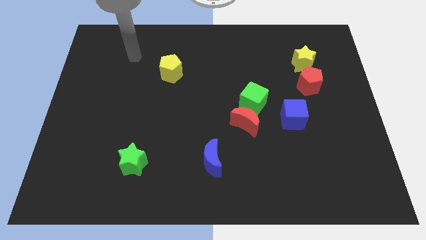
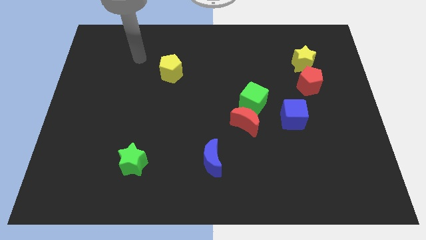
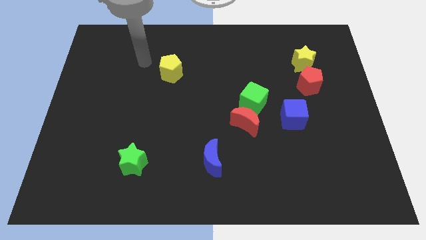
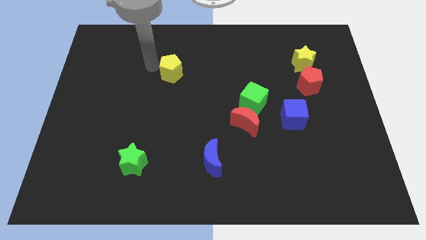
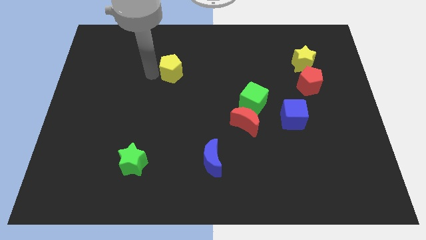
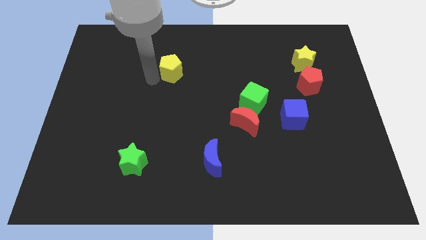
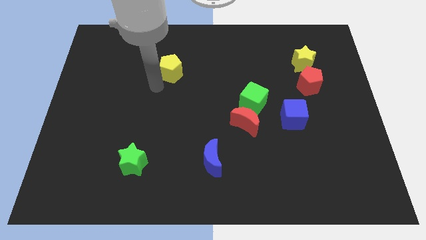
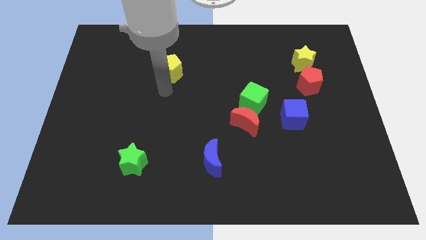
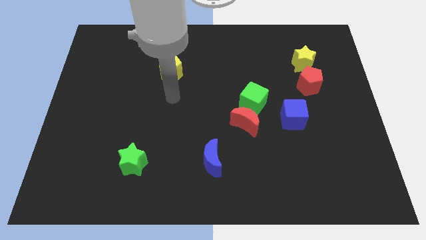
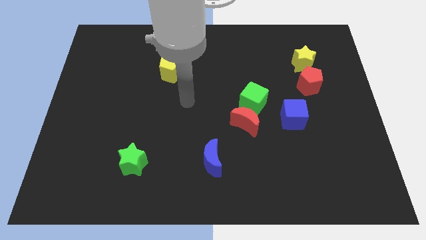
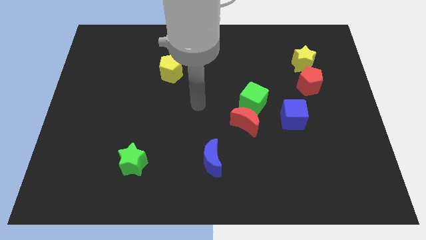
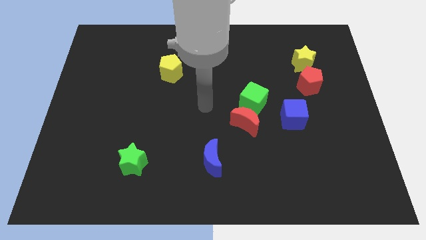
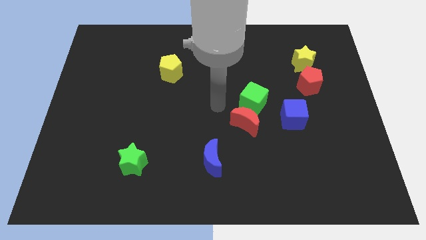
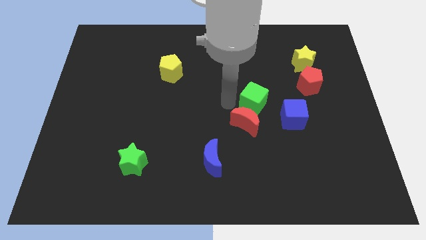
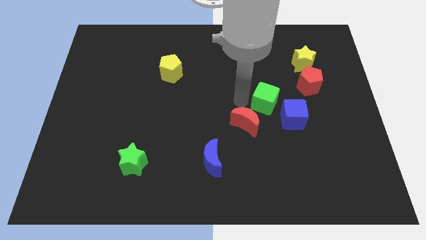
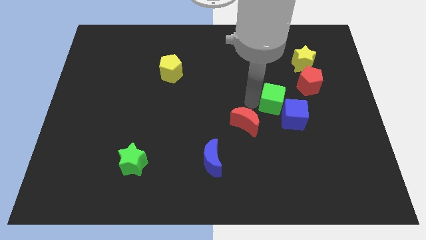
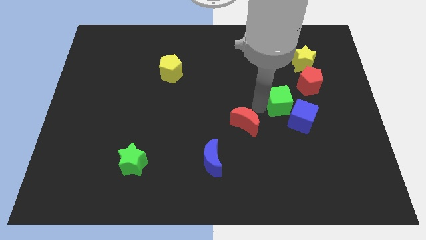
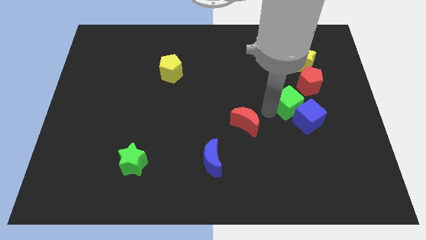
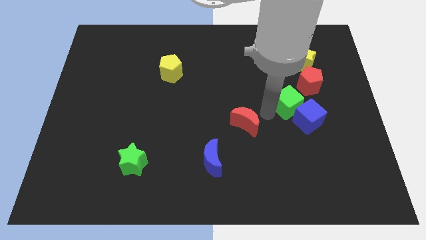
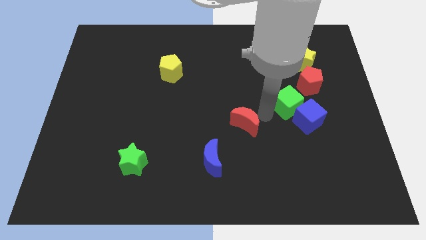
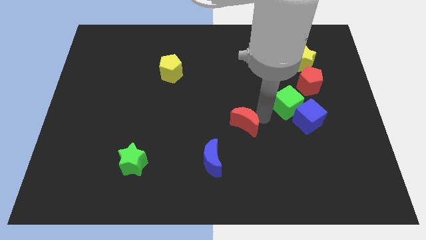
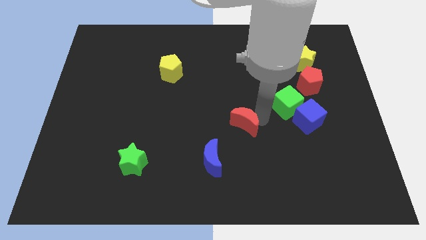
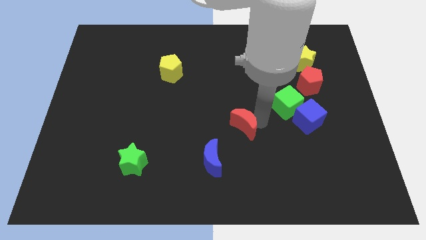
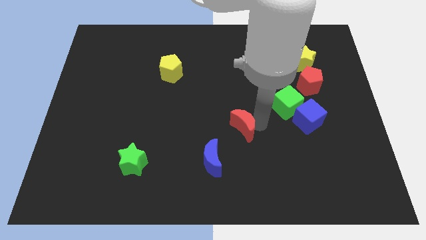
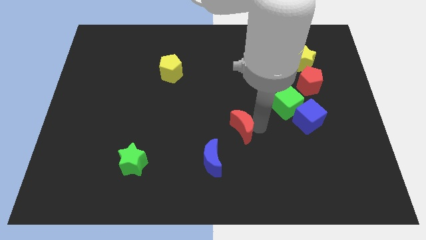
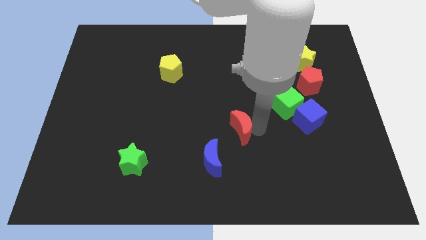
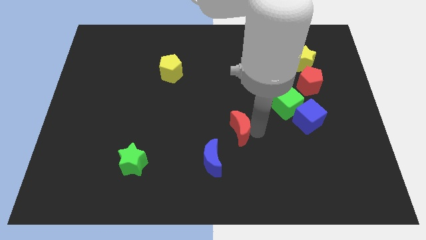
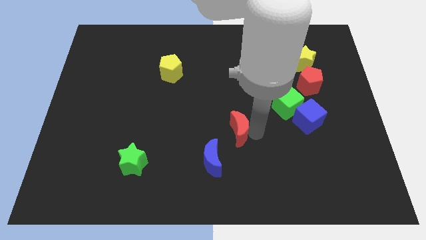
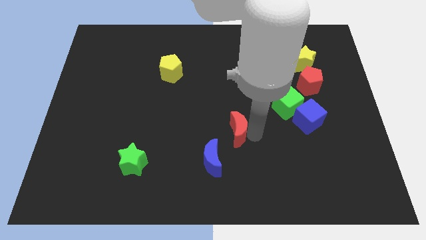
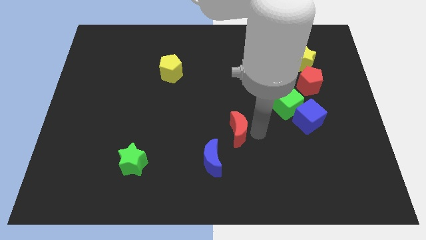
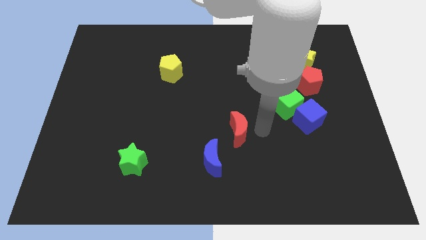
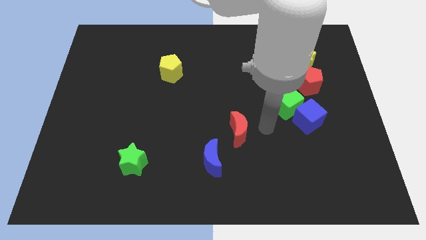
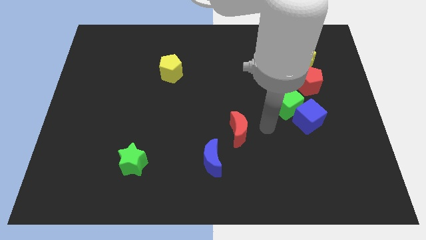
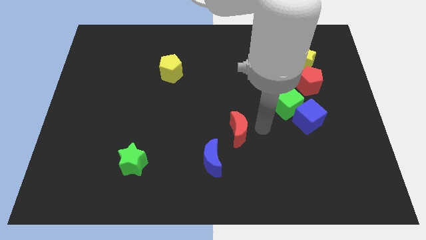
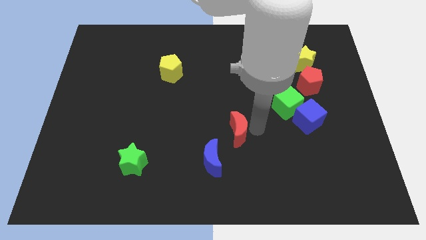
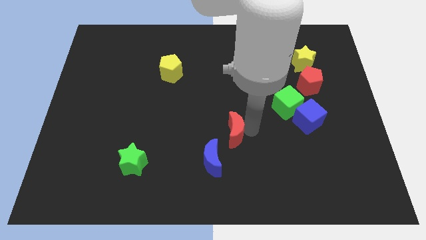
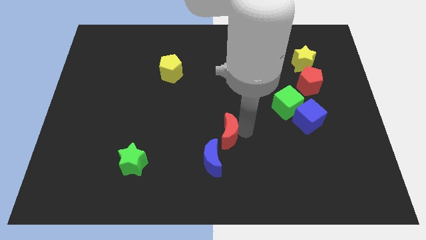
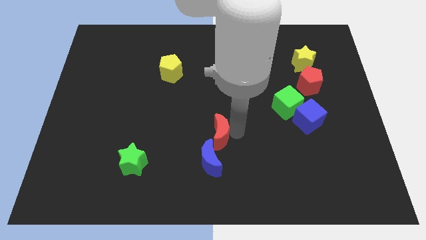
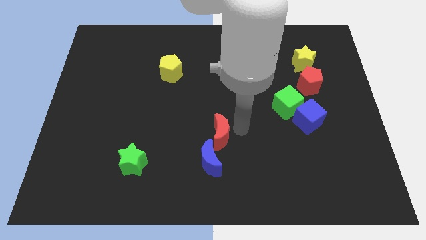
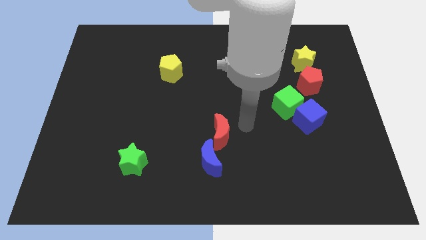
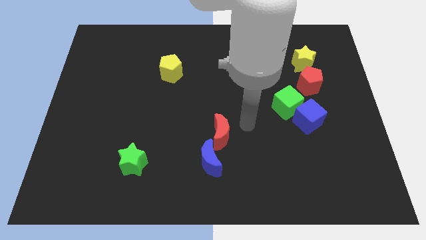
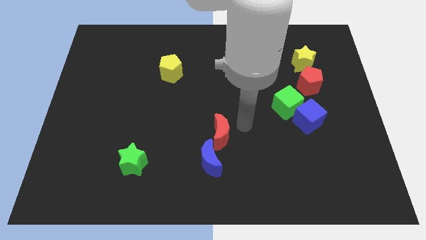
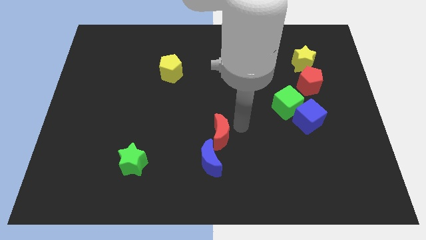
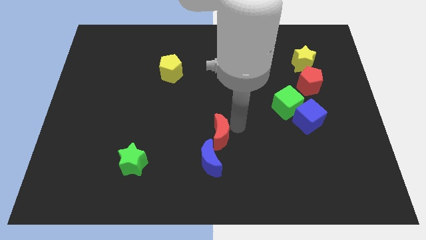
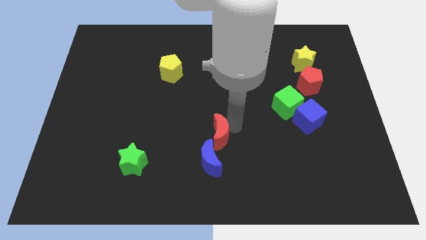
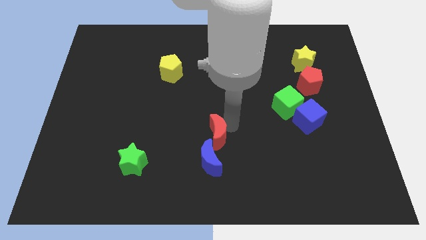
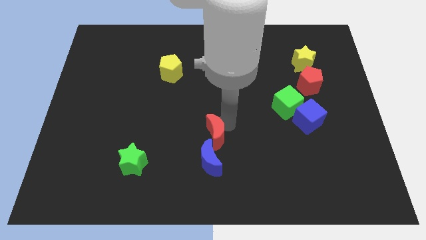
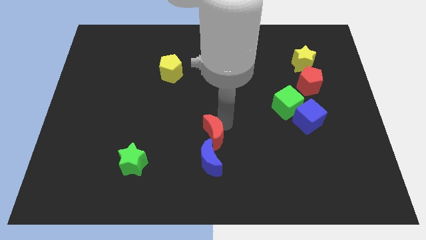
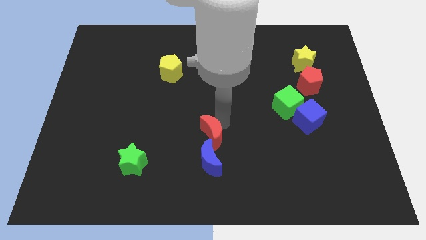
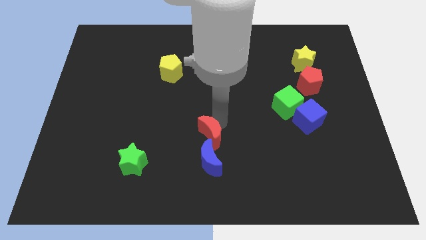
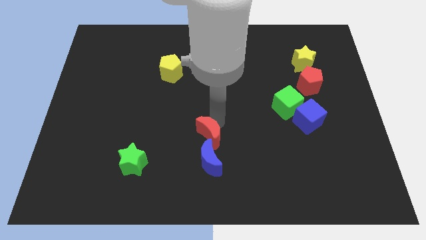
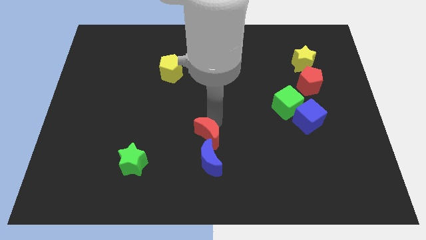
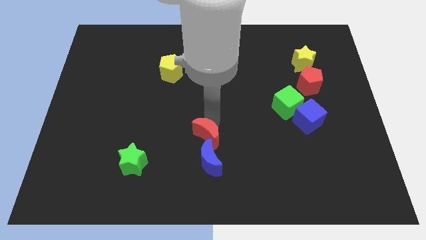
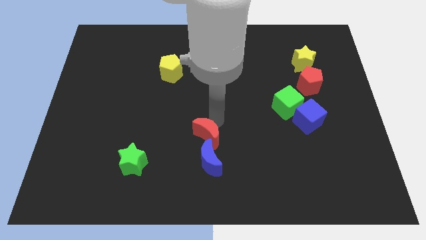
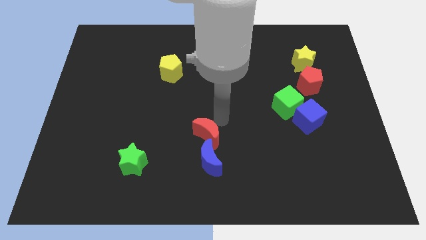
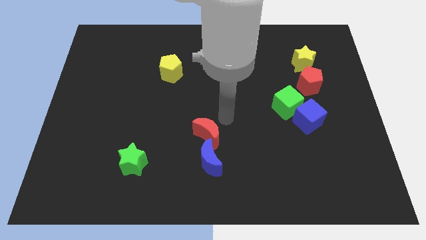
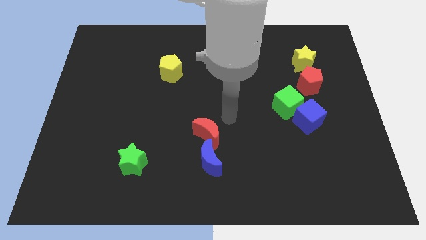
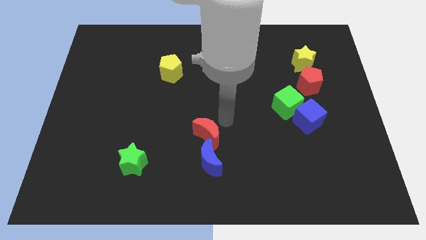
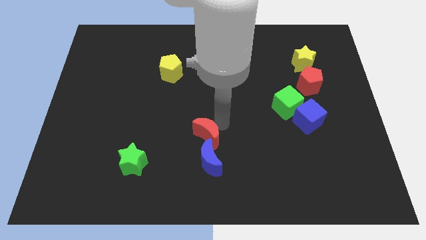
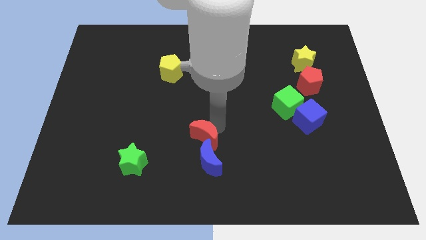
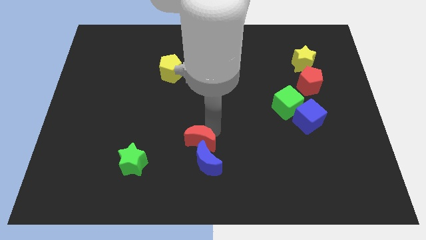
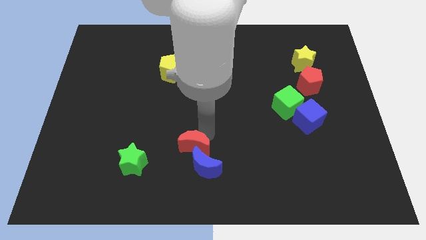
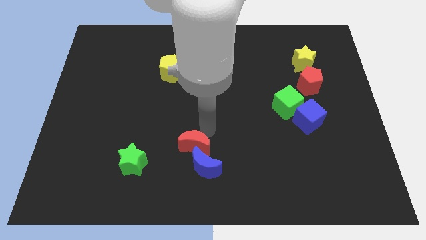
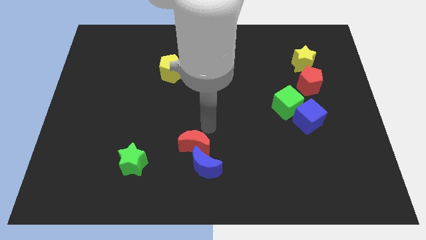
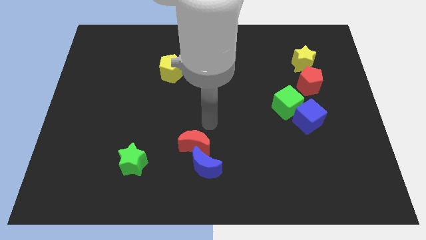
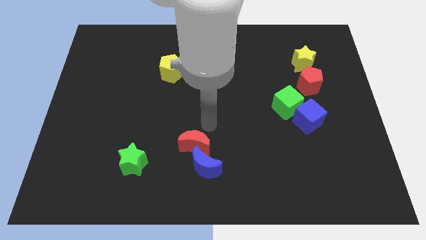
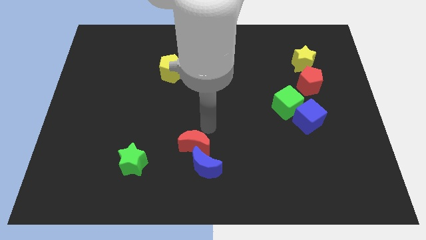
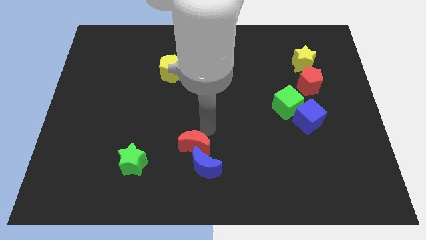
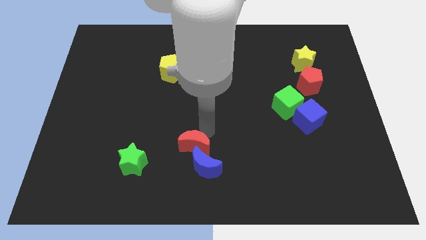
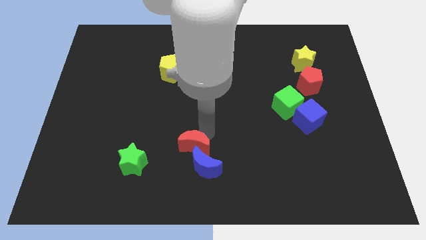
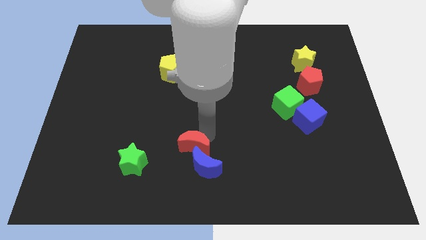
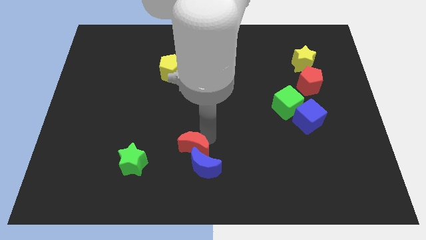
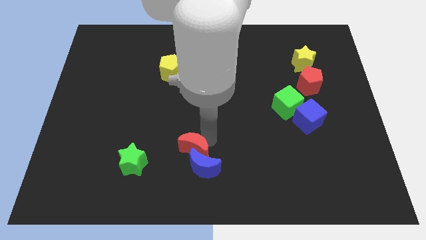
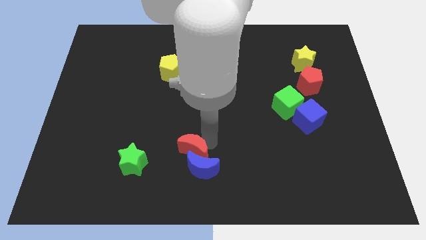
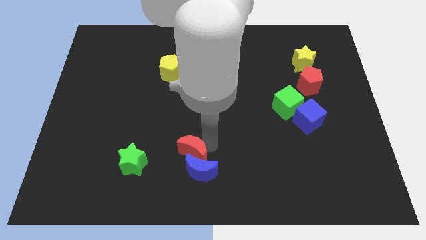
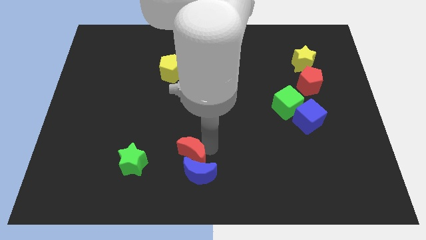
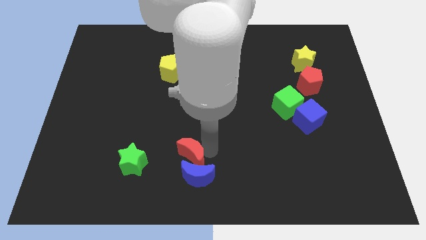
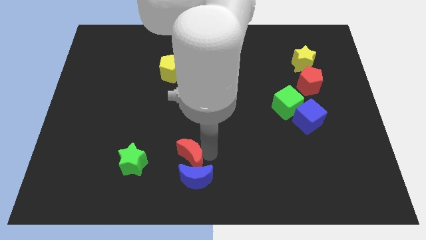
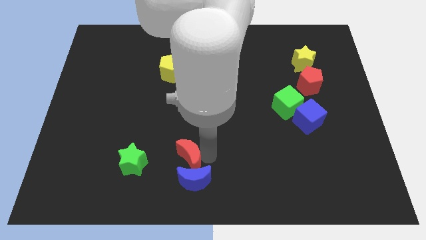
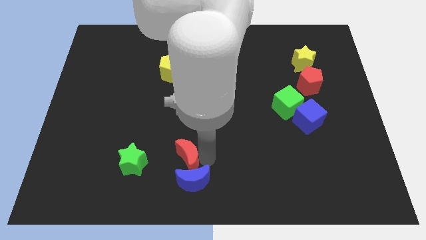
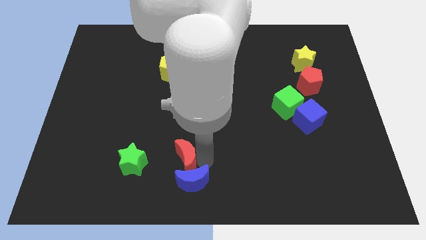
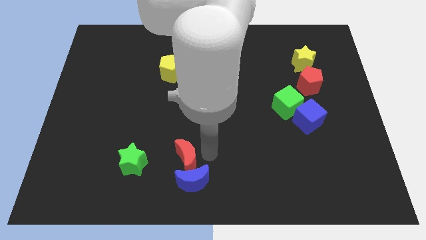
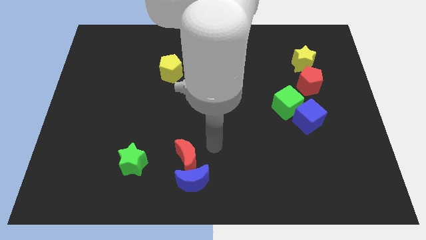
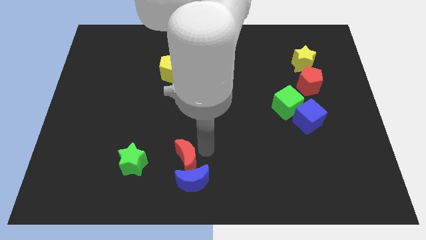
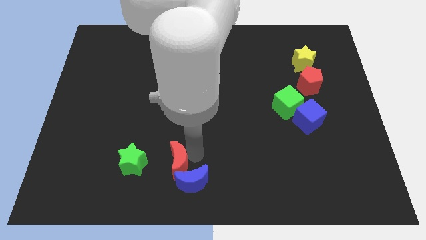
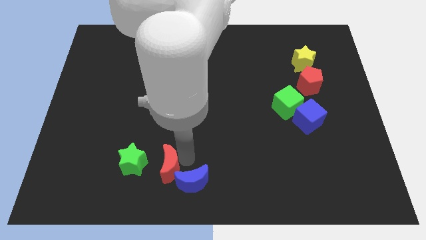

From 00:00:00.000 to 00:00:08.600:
put the red moon just left of the blue moon
